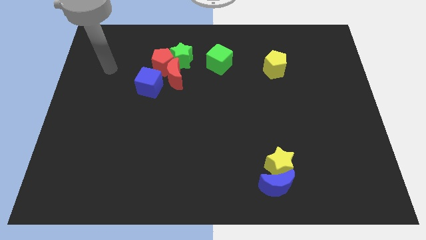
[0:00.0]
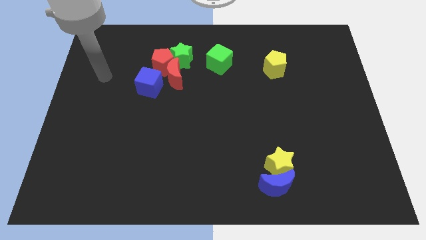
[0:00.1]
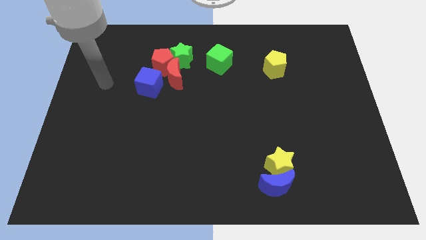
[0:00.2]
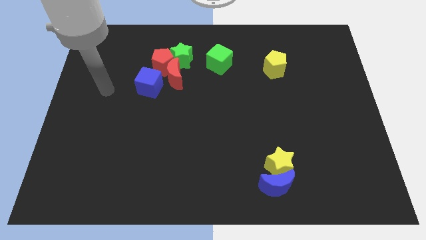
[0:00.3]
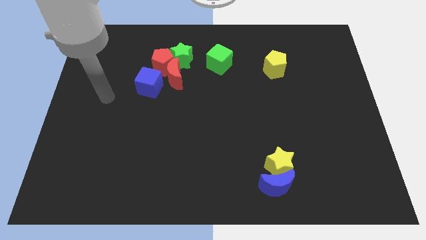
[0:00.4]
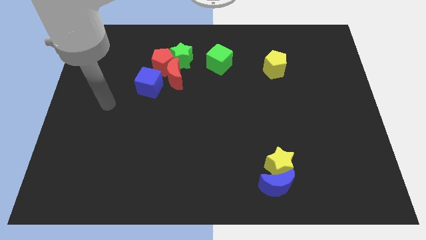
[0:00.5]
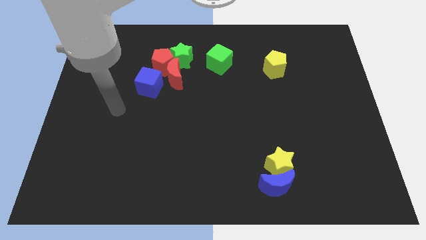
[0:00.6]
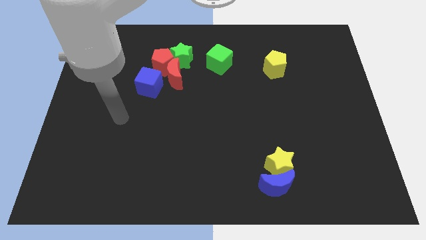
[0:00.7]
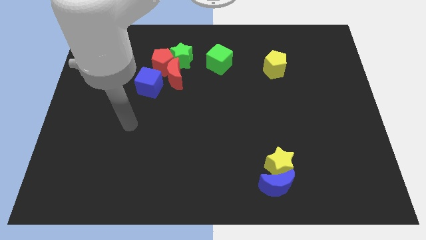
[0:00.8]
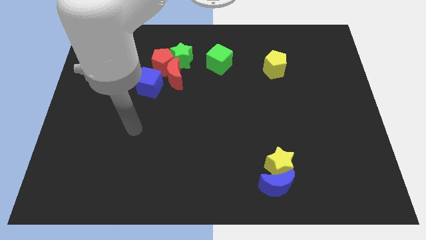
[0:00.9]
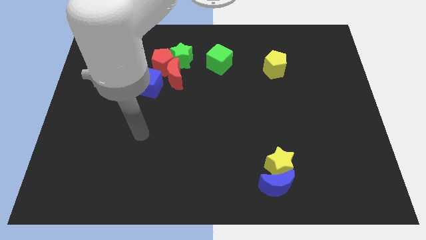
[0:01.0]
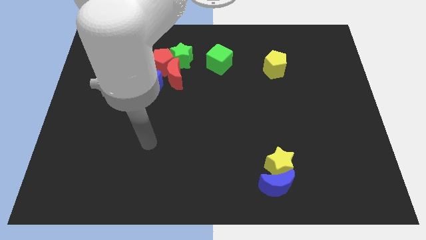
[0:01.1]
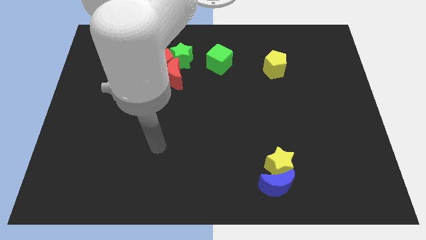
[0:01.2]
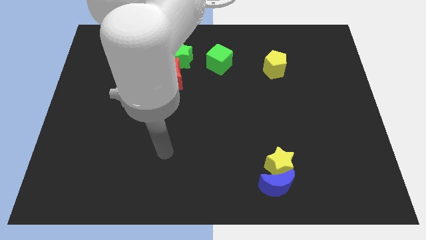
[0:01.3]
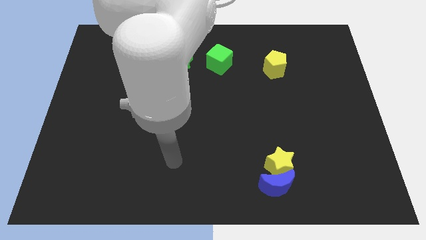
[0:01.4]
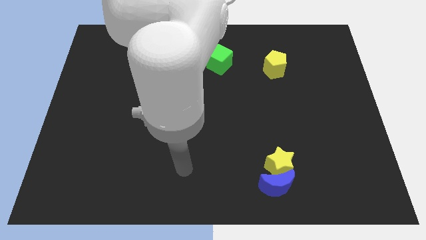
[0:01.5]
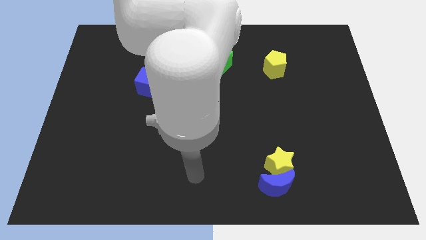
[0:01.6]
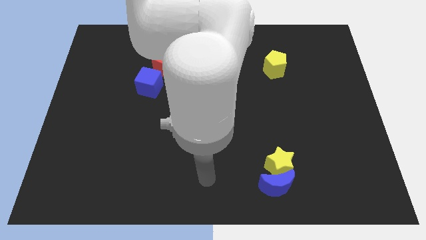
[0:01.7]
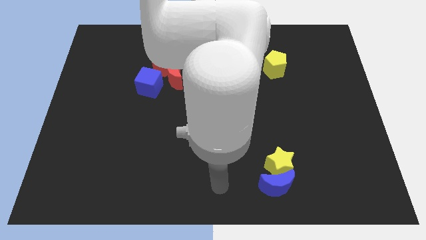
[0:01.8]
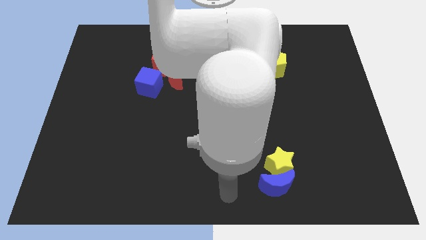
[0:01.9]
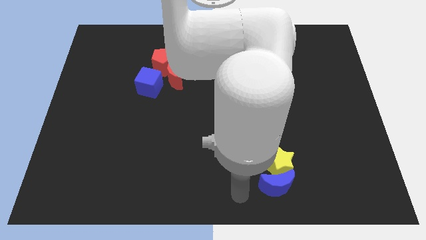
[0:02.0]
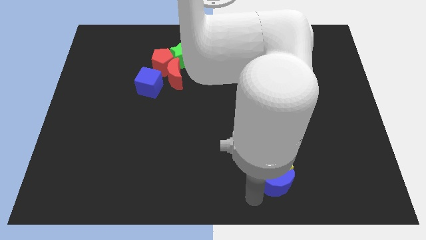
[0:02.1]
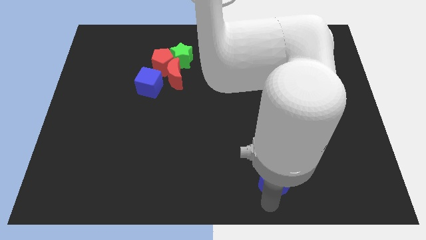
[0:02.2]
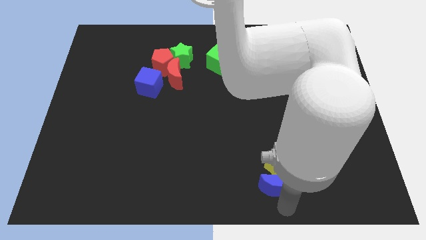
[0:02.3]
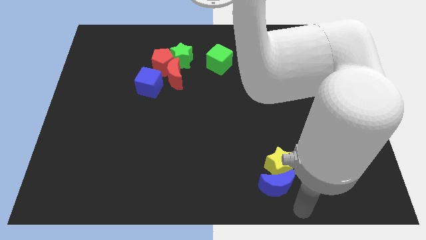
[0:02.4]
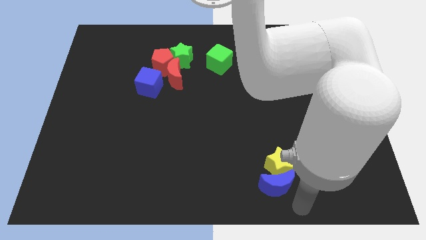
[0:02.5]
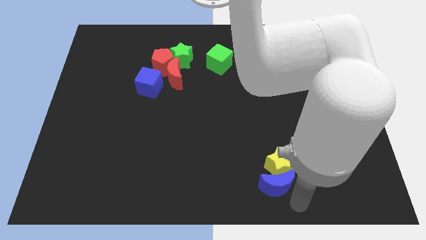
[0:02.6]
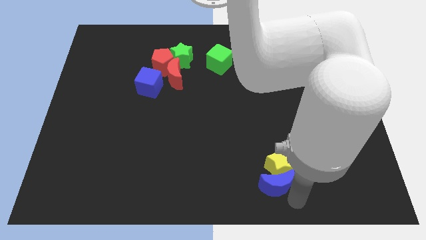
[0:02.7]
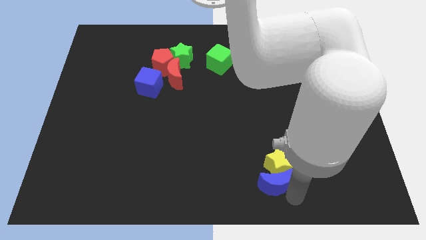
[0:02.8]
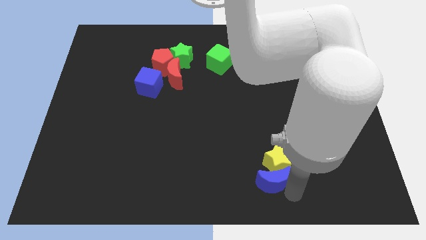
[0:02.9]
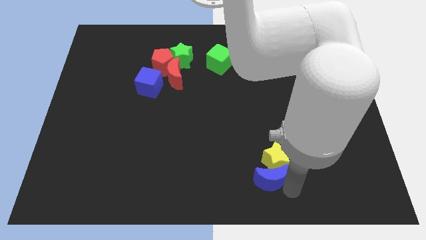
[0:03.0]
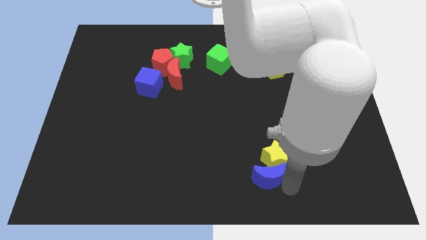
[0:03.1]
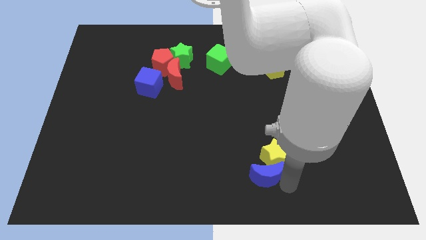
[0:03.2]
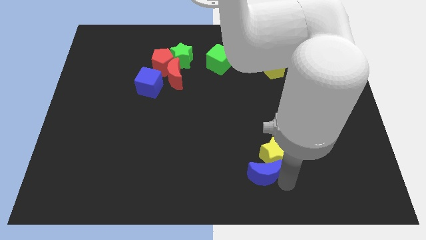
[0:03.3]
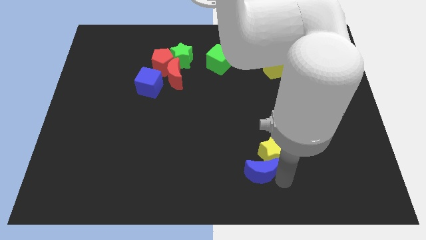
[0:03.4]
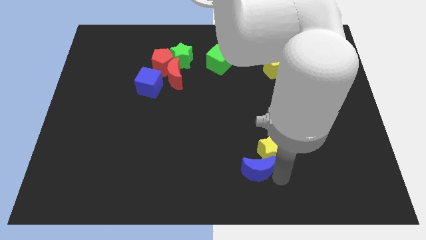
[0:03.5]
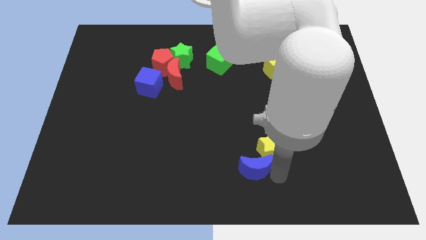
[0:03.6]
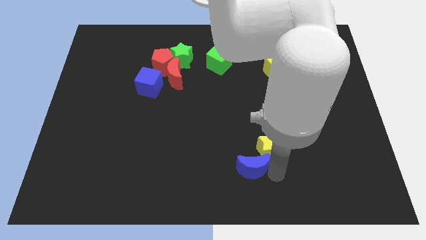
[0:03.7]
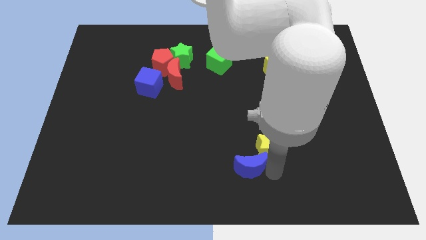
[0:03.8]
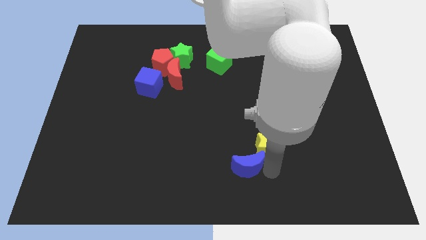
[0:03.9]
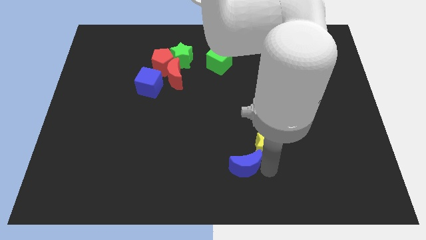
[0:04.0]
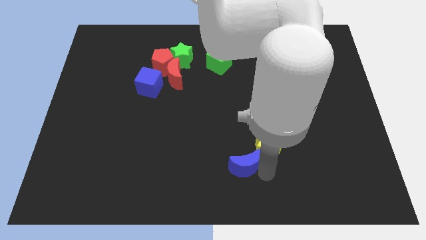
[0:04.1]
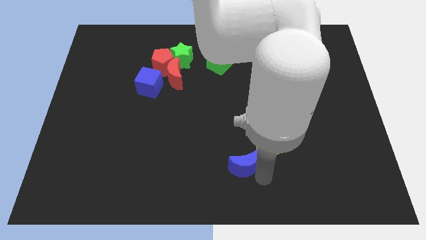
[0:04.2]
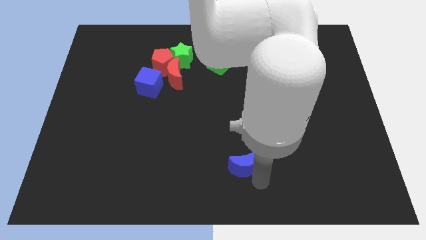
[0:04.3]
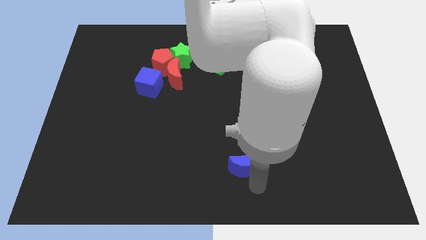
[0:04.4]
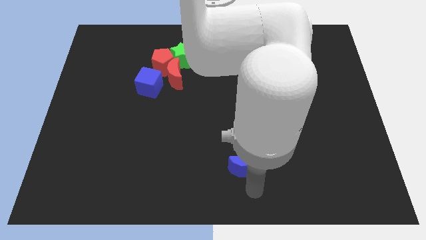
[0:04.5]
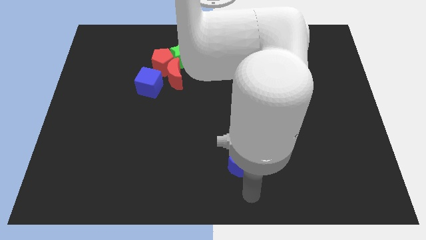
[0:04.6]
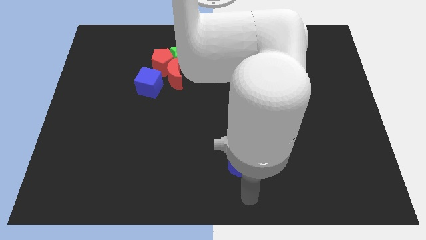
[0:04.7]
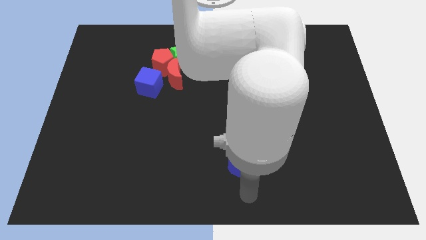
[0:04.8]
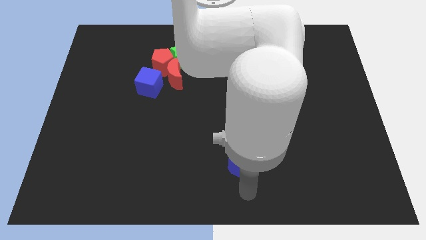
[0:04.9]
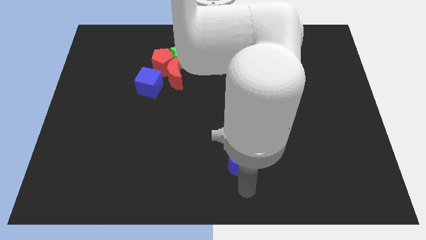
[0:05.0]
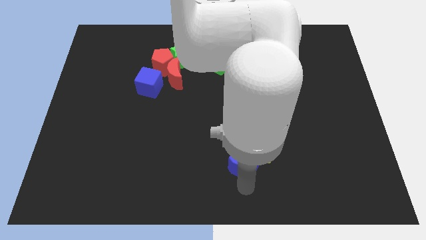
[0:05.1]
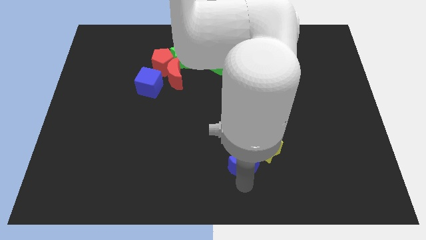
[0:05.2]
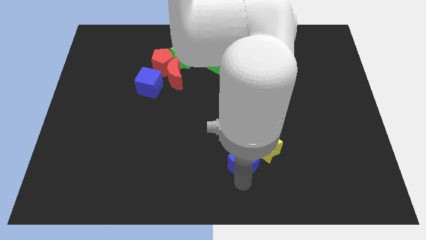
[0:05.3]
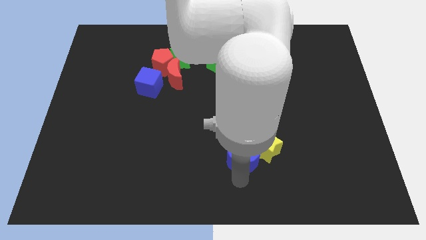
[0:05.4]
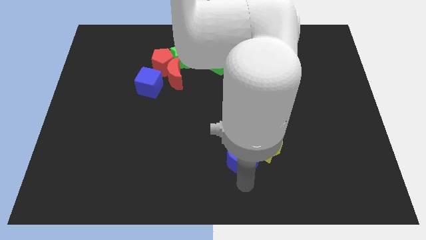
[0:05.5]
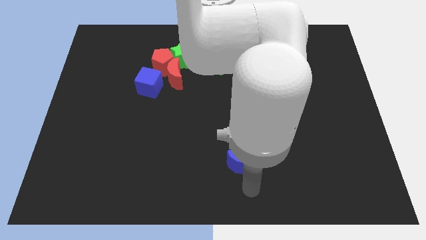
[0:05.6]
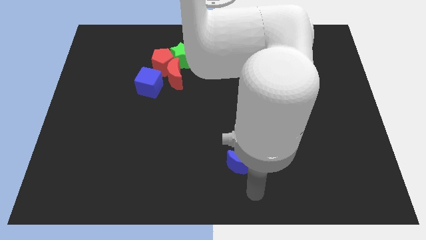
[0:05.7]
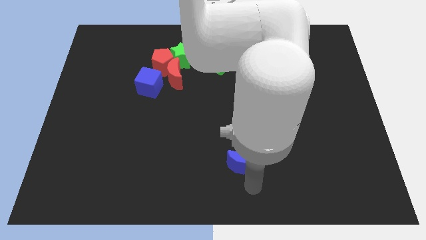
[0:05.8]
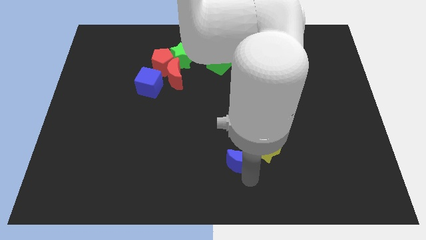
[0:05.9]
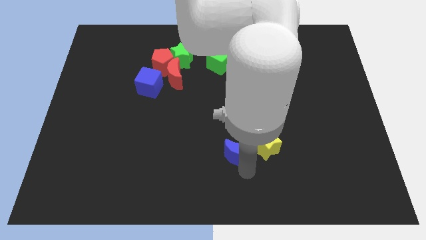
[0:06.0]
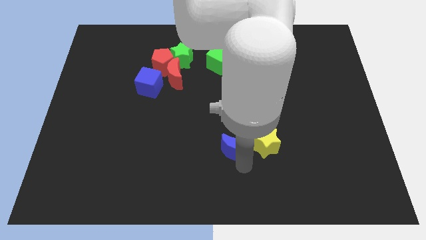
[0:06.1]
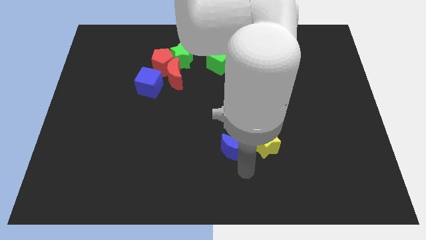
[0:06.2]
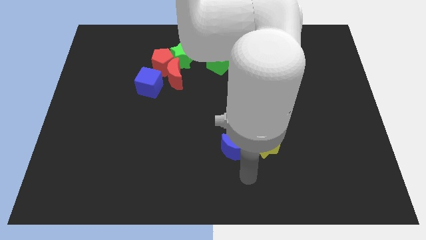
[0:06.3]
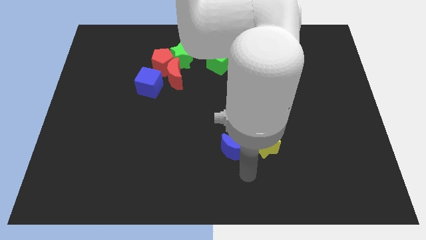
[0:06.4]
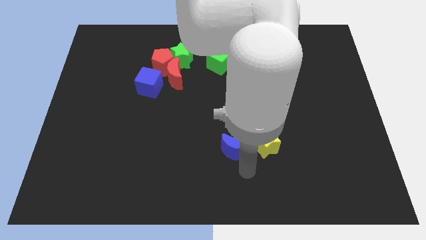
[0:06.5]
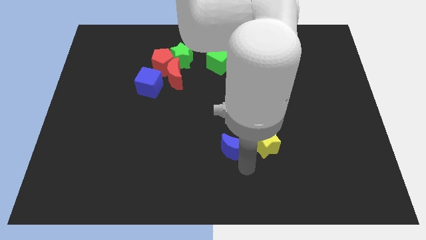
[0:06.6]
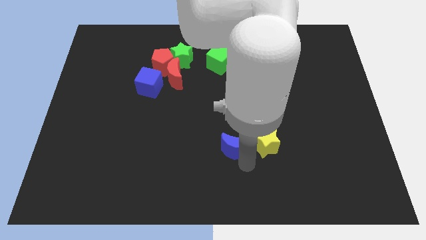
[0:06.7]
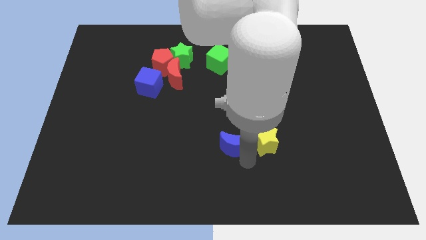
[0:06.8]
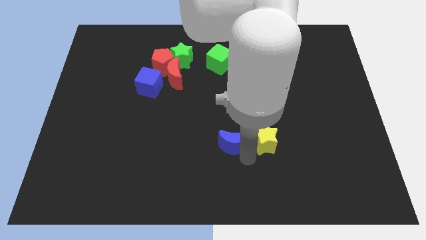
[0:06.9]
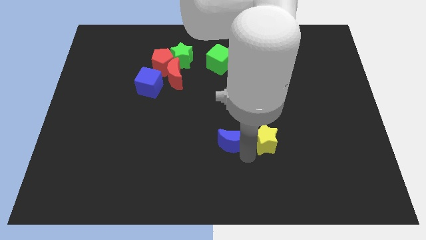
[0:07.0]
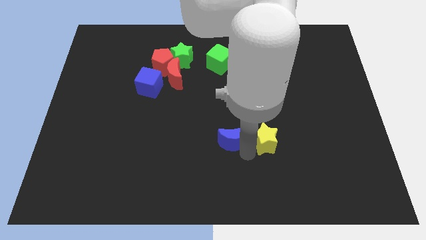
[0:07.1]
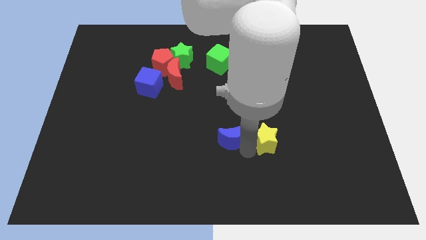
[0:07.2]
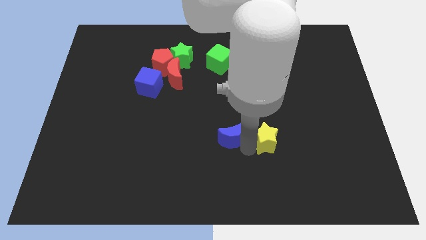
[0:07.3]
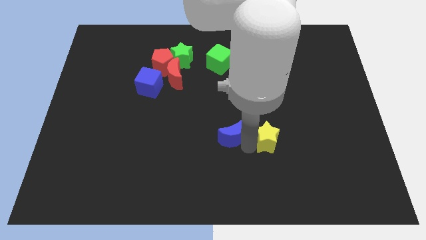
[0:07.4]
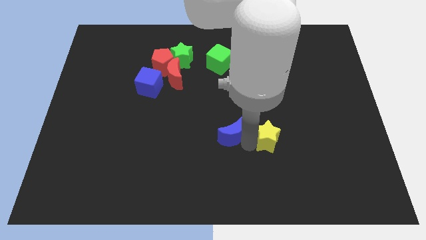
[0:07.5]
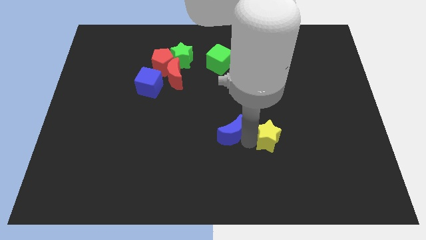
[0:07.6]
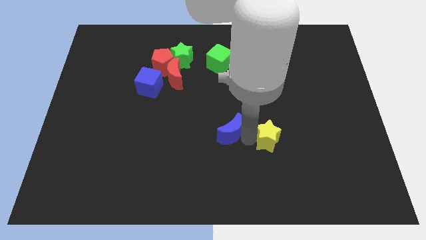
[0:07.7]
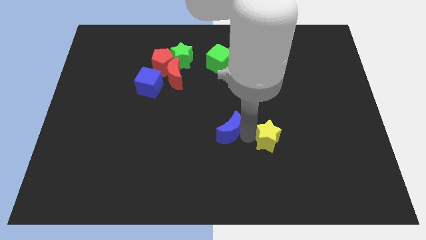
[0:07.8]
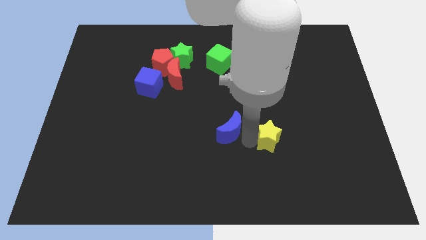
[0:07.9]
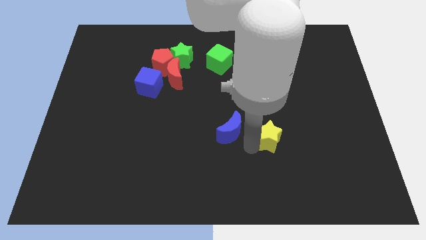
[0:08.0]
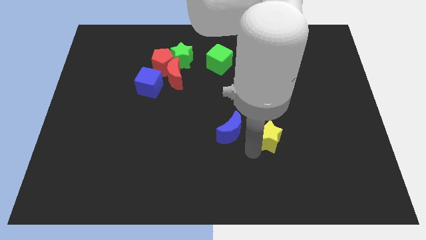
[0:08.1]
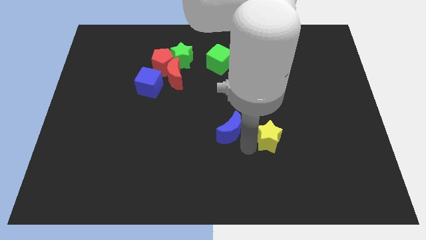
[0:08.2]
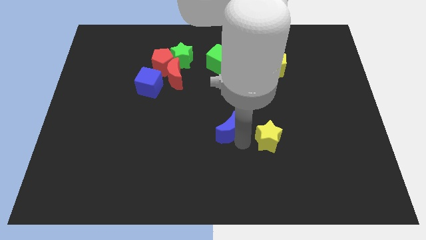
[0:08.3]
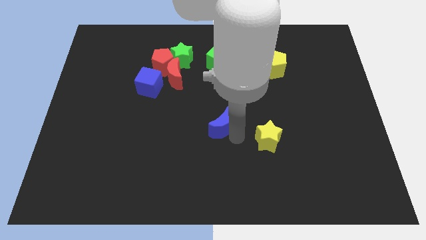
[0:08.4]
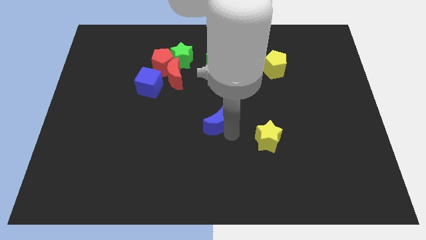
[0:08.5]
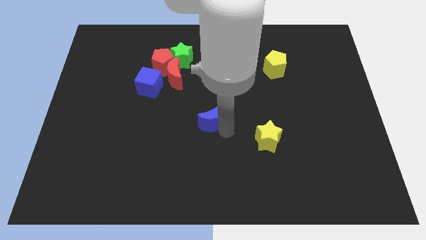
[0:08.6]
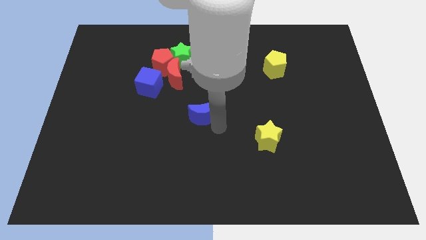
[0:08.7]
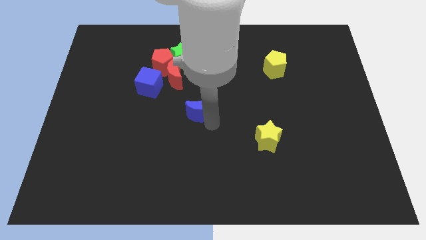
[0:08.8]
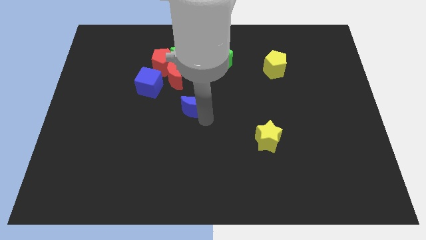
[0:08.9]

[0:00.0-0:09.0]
move the blue moon diagonally down and to the right of the red moon
